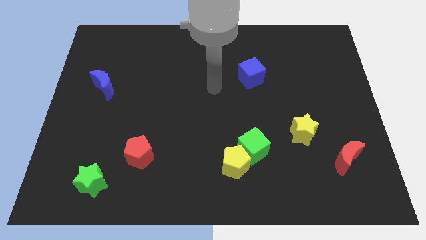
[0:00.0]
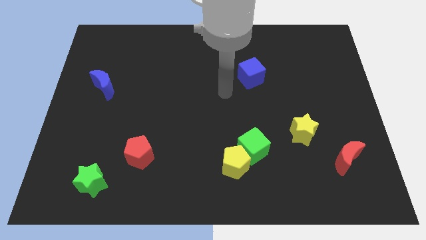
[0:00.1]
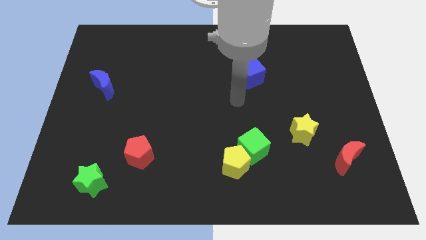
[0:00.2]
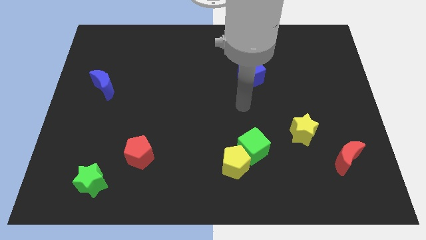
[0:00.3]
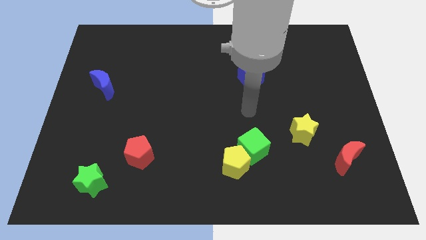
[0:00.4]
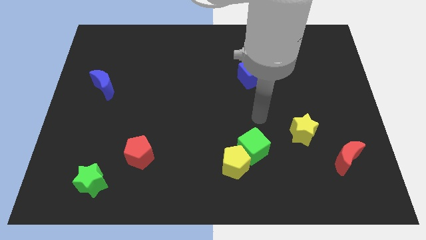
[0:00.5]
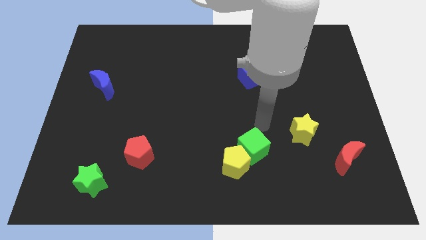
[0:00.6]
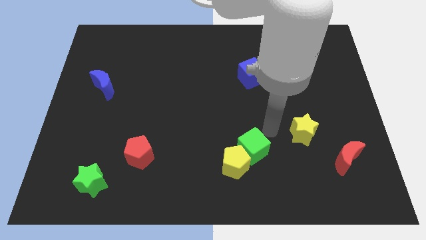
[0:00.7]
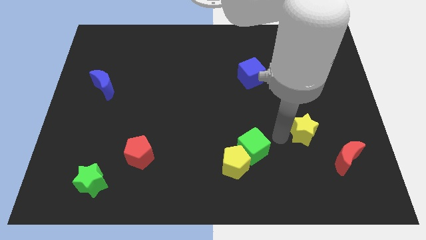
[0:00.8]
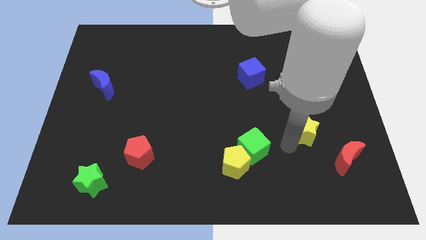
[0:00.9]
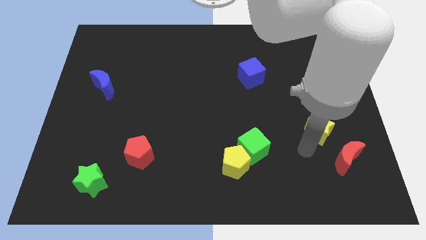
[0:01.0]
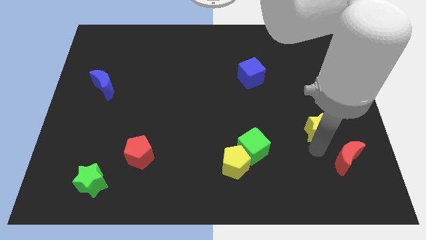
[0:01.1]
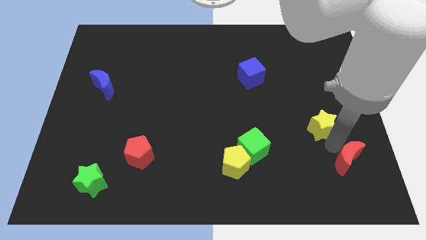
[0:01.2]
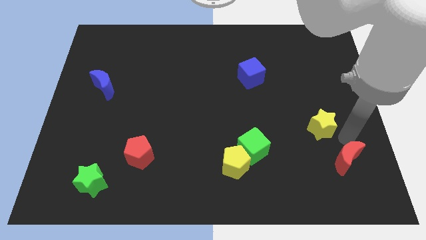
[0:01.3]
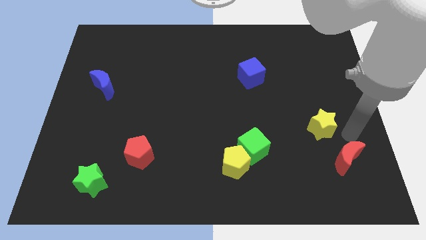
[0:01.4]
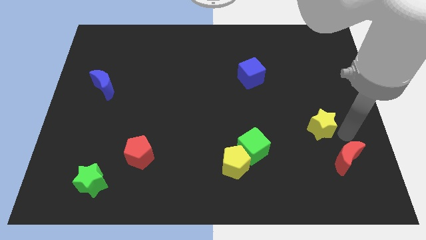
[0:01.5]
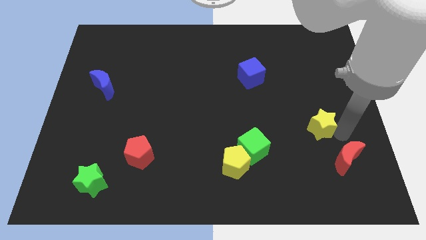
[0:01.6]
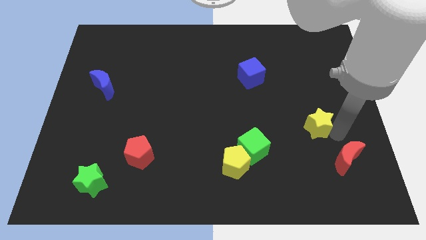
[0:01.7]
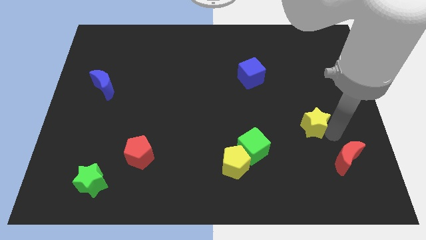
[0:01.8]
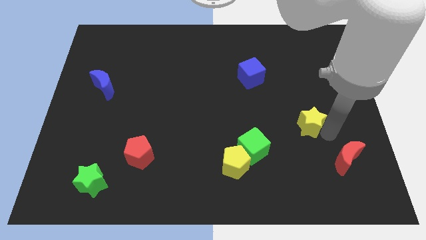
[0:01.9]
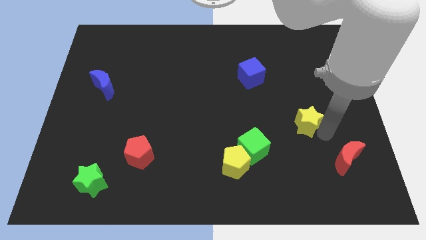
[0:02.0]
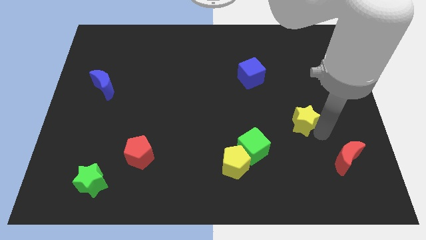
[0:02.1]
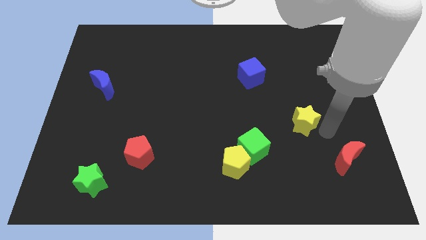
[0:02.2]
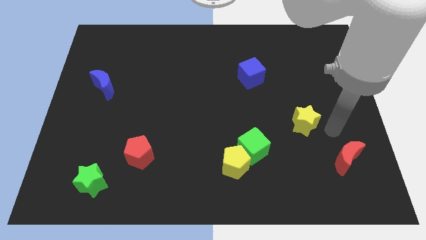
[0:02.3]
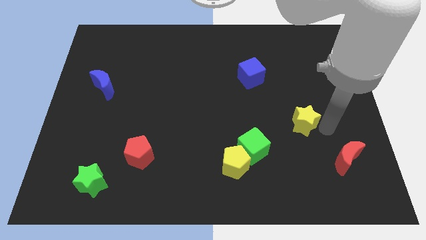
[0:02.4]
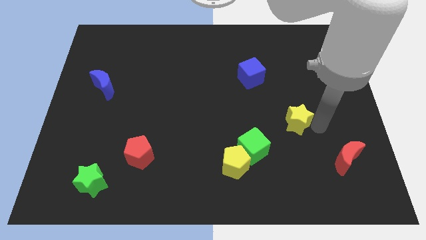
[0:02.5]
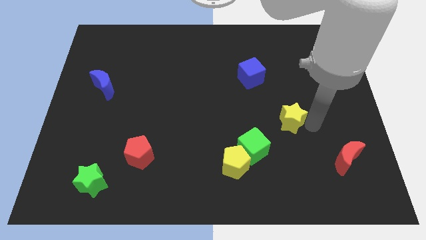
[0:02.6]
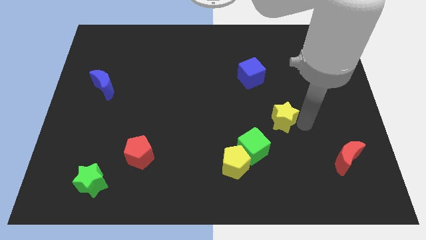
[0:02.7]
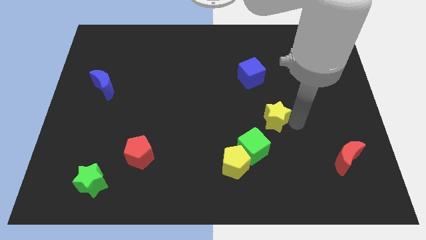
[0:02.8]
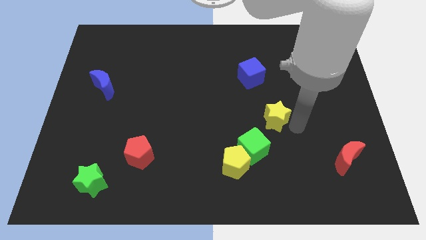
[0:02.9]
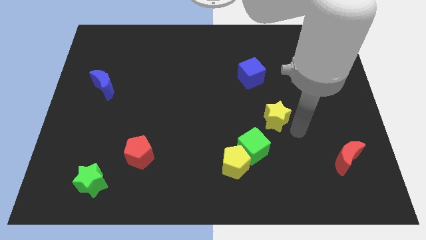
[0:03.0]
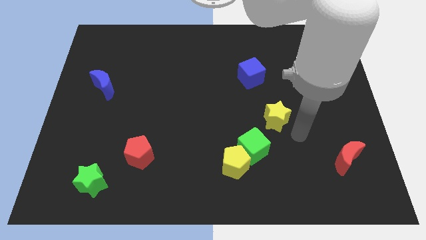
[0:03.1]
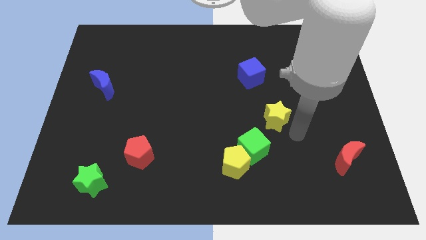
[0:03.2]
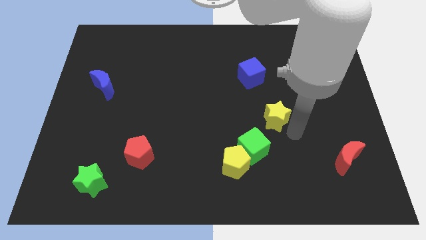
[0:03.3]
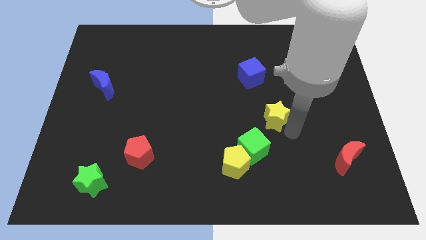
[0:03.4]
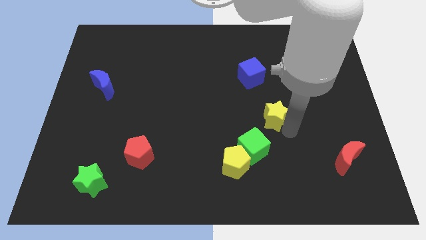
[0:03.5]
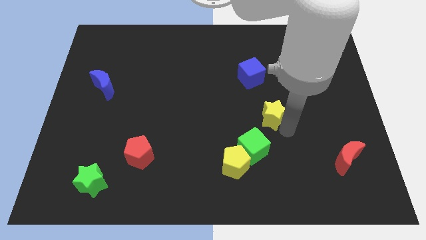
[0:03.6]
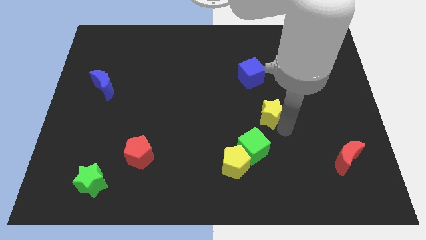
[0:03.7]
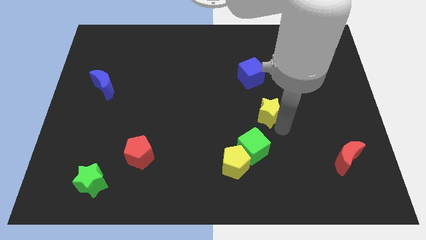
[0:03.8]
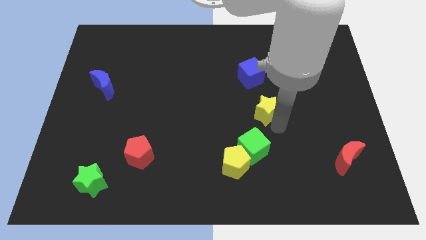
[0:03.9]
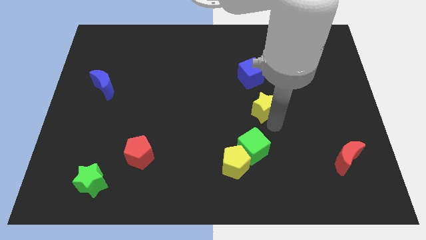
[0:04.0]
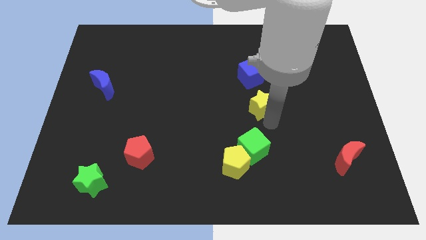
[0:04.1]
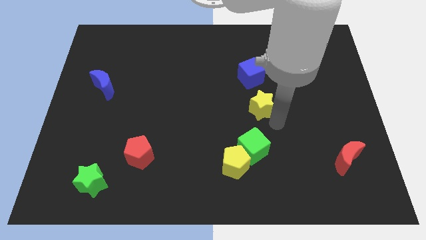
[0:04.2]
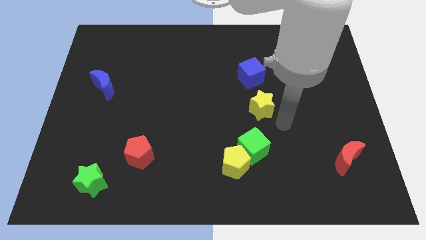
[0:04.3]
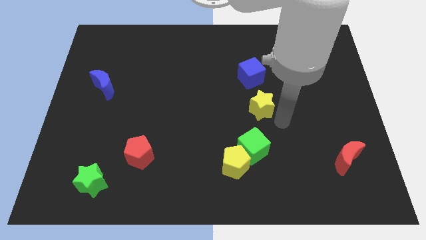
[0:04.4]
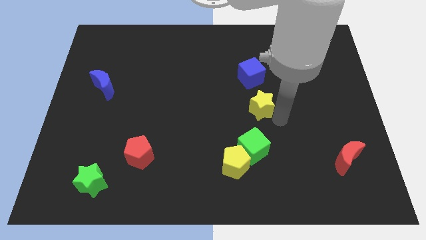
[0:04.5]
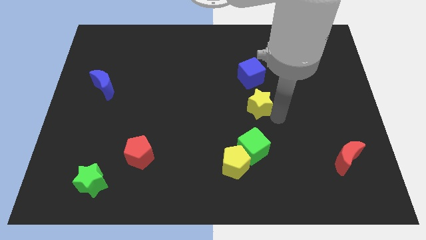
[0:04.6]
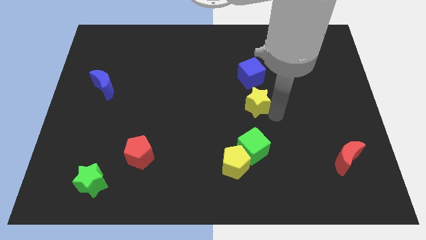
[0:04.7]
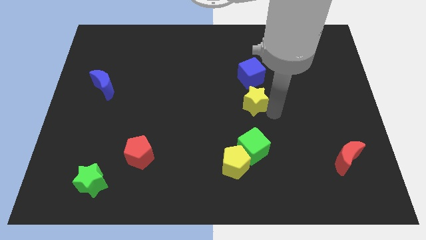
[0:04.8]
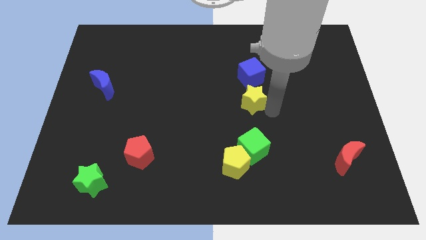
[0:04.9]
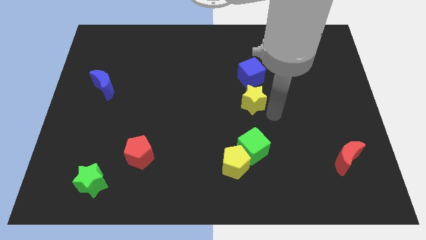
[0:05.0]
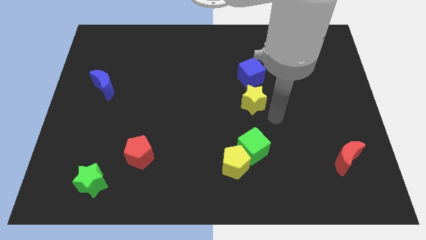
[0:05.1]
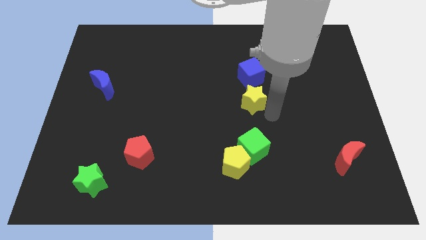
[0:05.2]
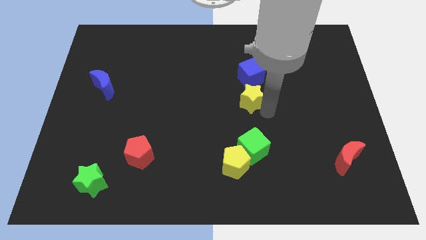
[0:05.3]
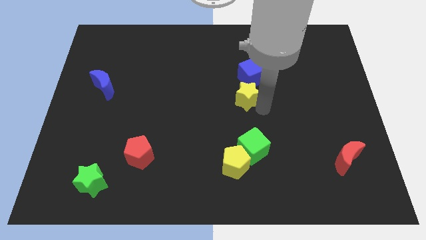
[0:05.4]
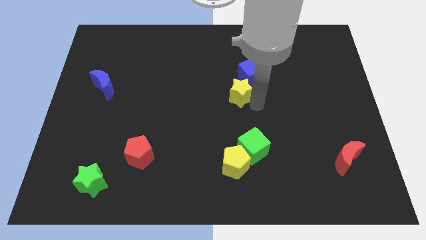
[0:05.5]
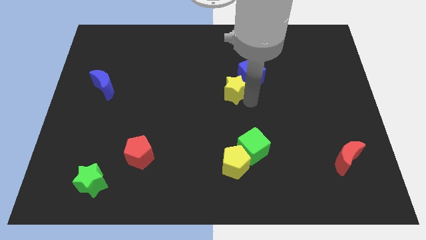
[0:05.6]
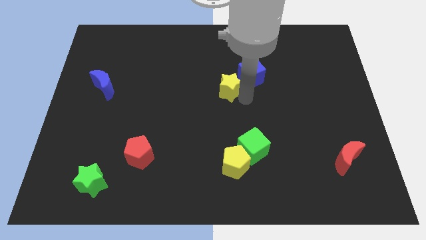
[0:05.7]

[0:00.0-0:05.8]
move the yellow star up and to the left

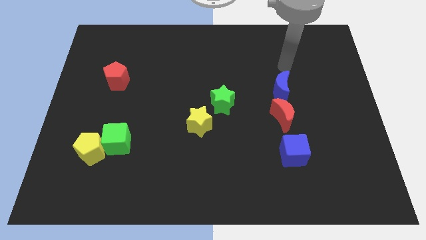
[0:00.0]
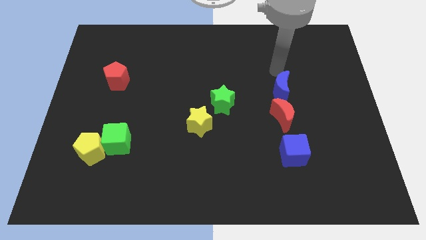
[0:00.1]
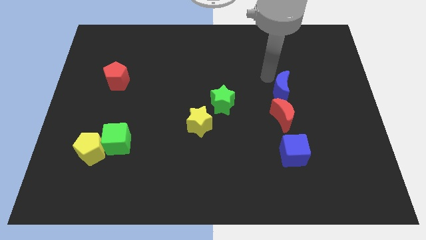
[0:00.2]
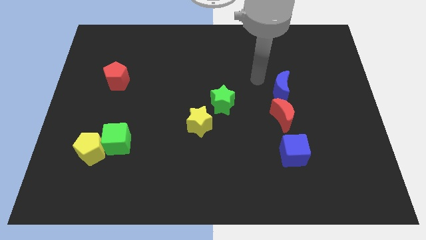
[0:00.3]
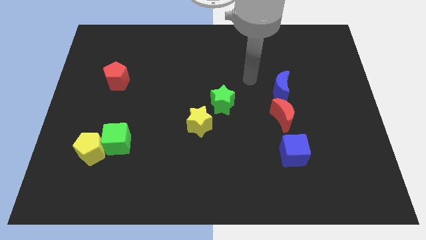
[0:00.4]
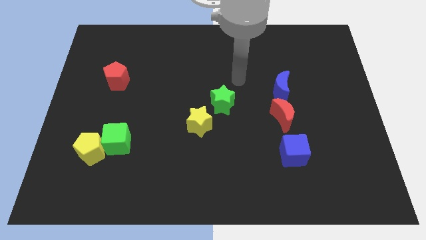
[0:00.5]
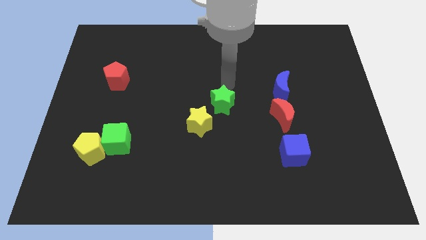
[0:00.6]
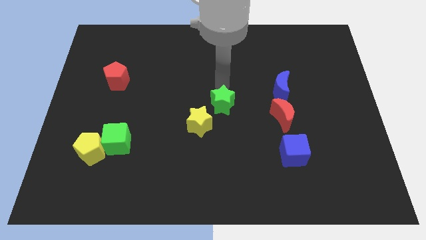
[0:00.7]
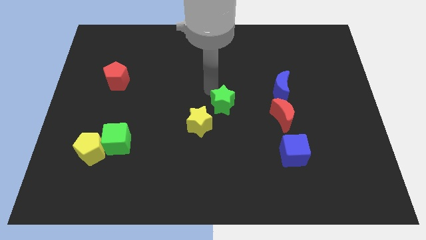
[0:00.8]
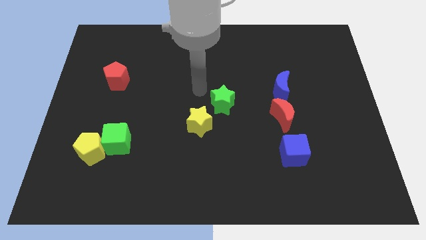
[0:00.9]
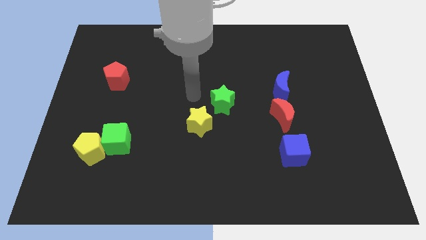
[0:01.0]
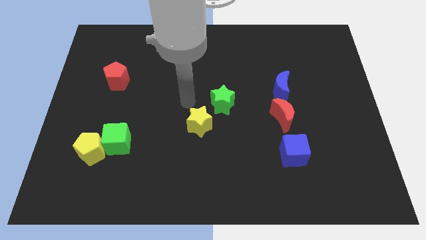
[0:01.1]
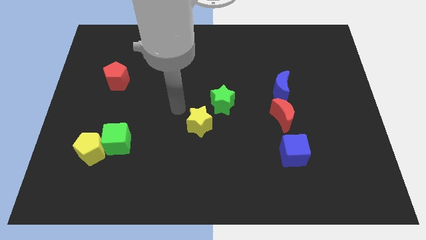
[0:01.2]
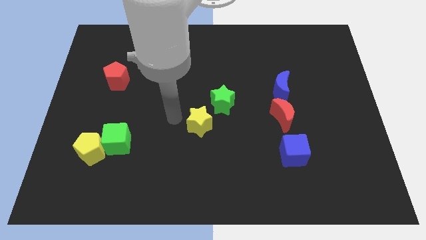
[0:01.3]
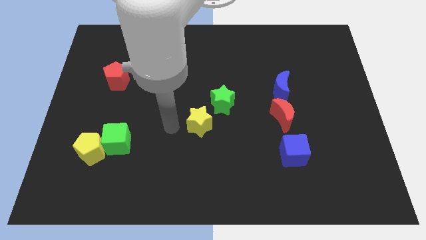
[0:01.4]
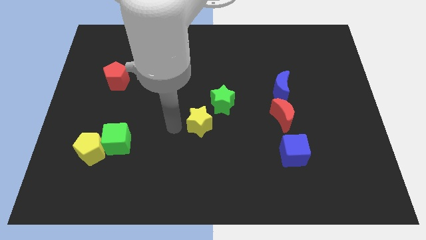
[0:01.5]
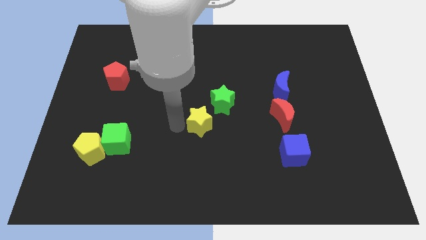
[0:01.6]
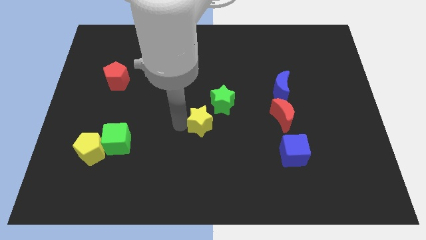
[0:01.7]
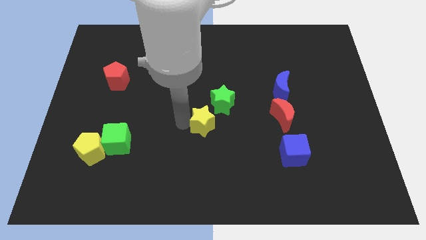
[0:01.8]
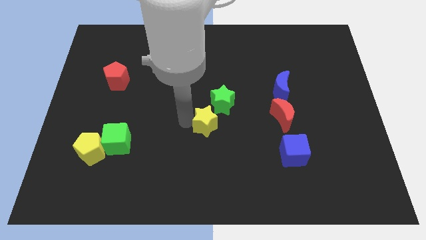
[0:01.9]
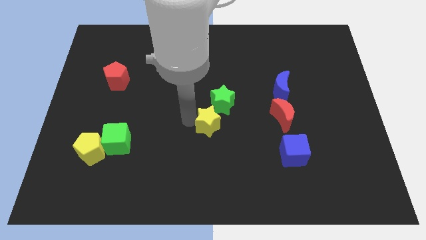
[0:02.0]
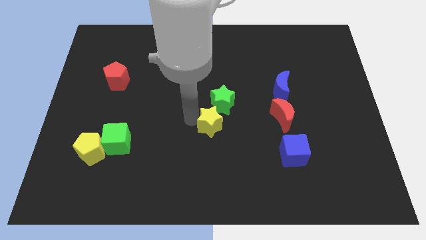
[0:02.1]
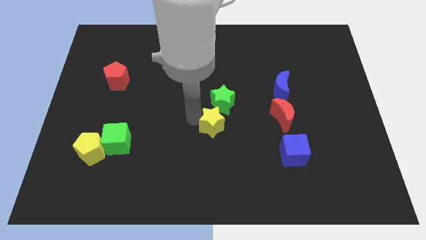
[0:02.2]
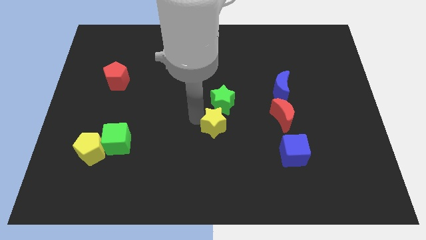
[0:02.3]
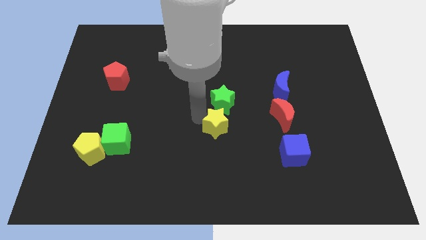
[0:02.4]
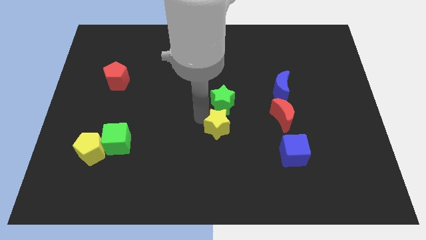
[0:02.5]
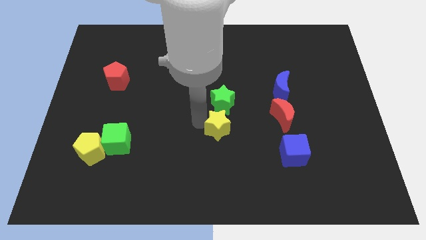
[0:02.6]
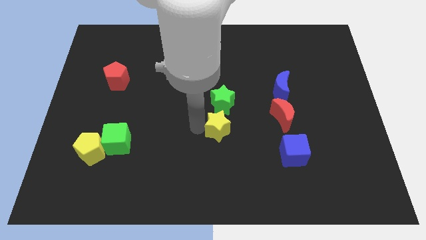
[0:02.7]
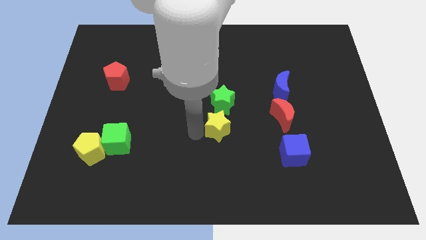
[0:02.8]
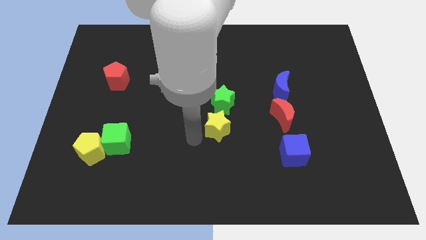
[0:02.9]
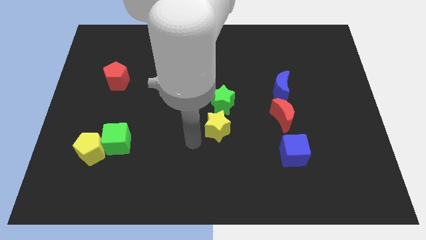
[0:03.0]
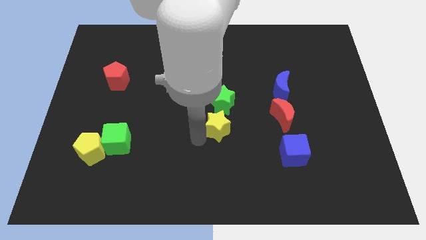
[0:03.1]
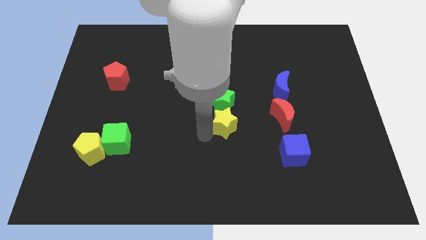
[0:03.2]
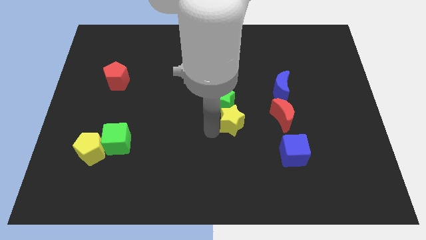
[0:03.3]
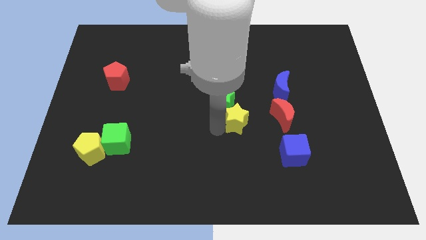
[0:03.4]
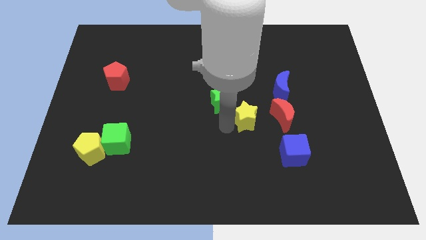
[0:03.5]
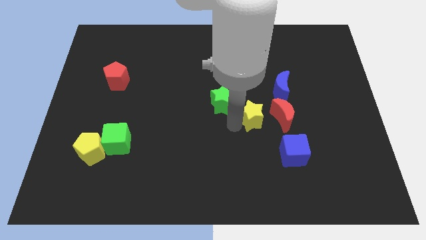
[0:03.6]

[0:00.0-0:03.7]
push the yellow star upwards and to the right diagonally a little
